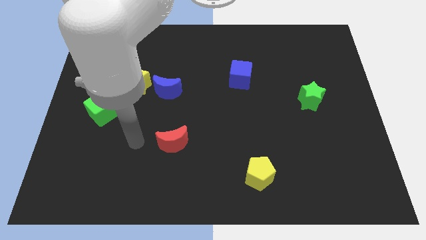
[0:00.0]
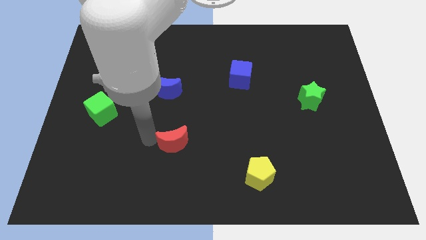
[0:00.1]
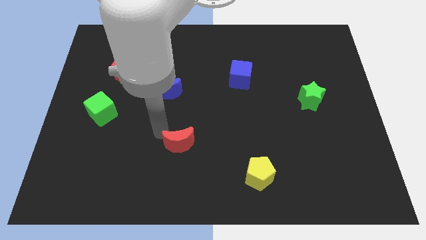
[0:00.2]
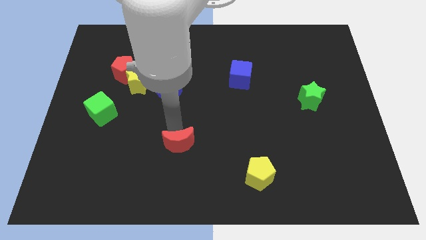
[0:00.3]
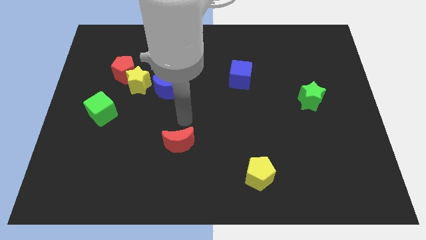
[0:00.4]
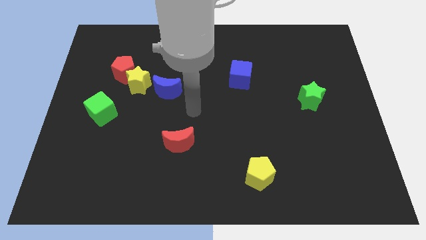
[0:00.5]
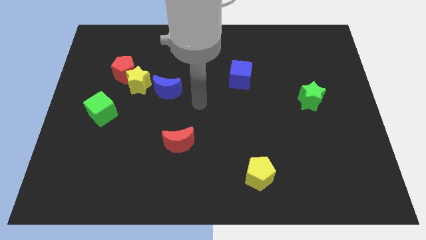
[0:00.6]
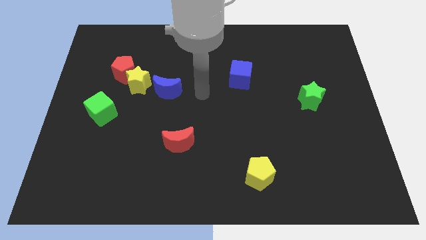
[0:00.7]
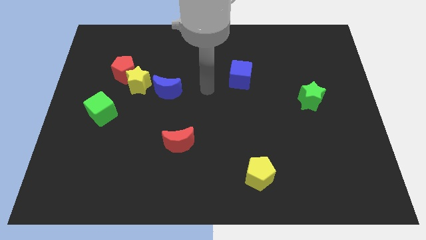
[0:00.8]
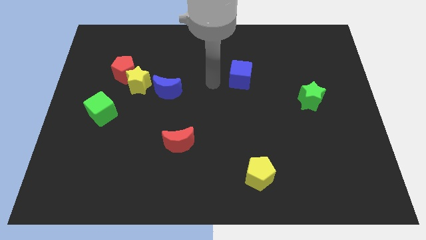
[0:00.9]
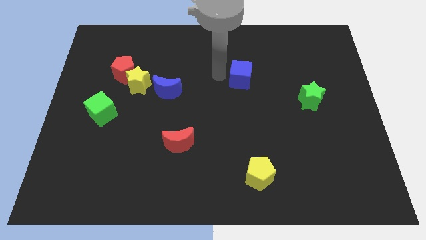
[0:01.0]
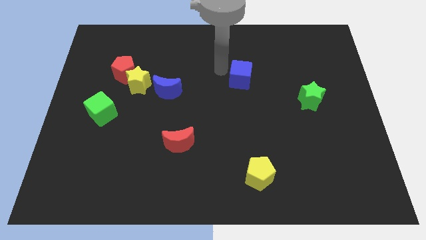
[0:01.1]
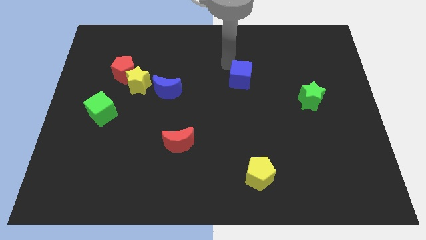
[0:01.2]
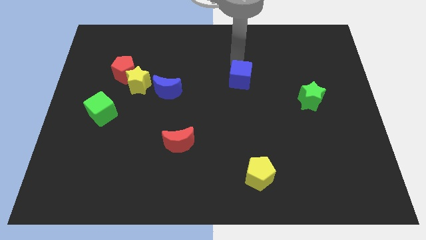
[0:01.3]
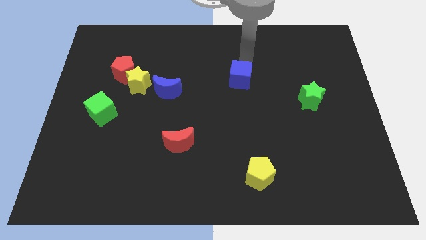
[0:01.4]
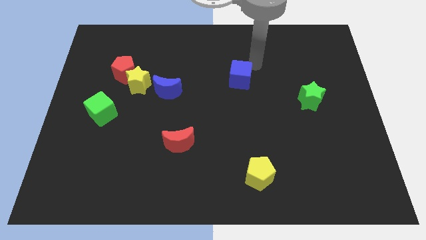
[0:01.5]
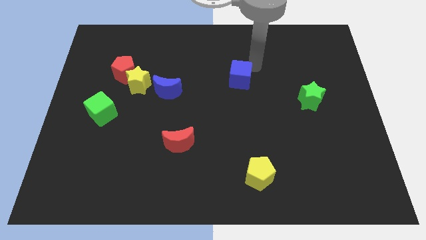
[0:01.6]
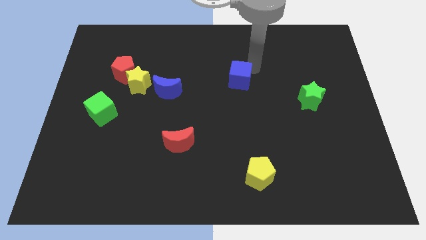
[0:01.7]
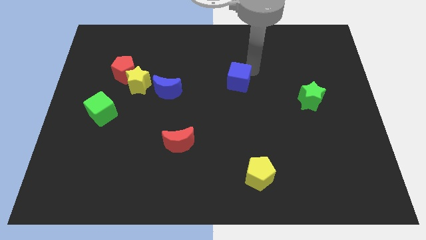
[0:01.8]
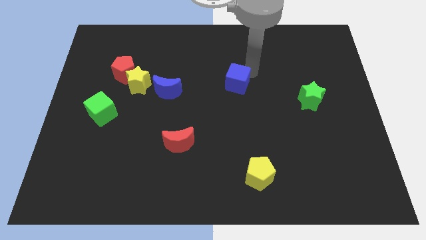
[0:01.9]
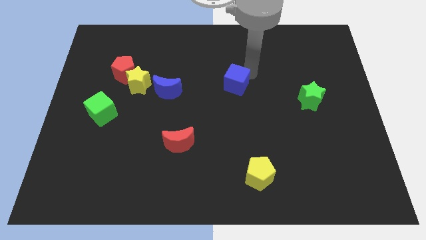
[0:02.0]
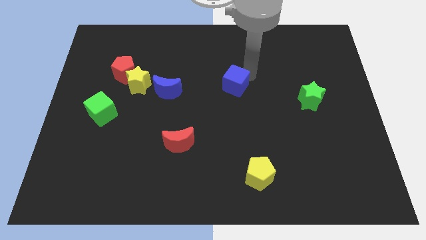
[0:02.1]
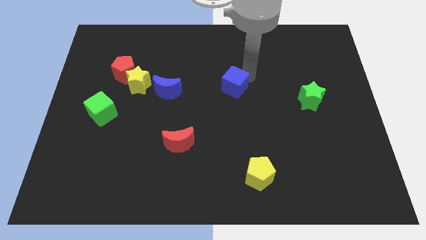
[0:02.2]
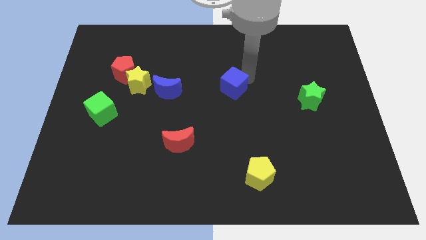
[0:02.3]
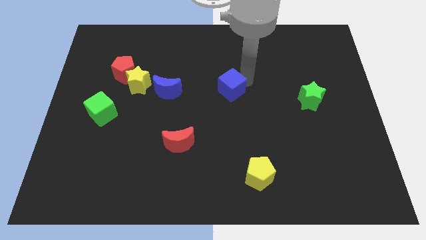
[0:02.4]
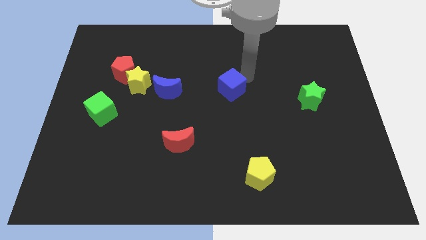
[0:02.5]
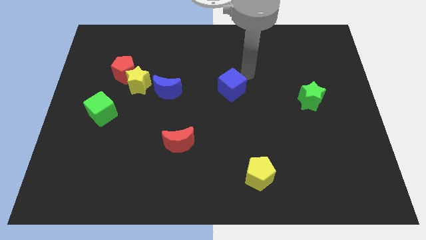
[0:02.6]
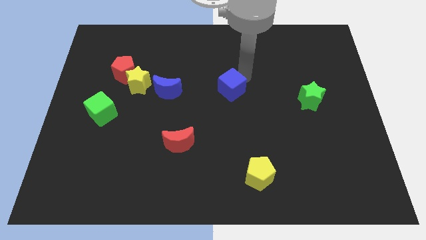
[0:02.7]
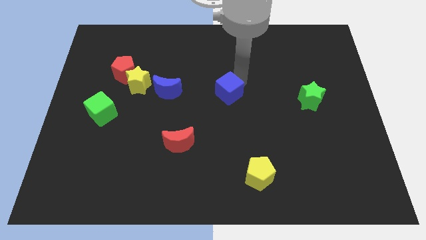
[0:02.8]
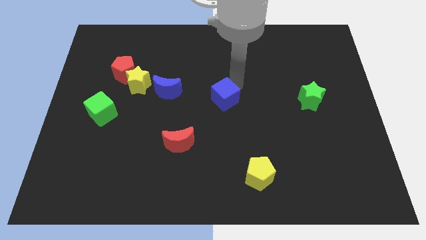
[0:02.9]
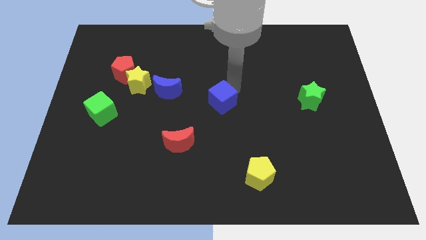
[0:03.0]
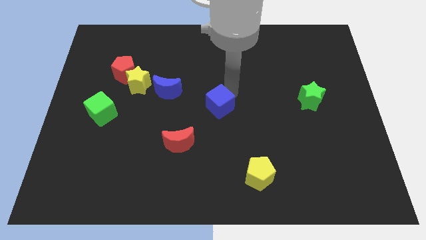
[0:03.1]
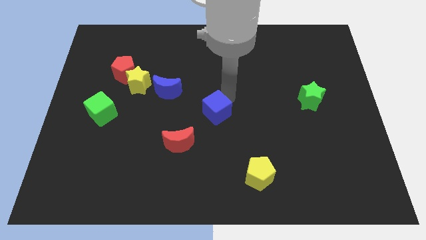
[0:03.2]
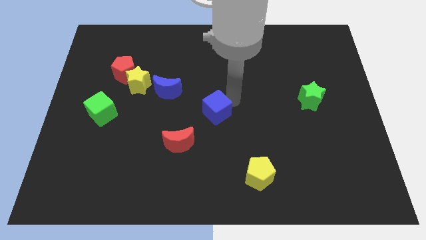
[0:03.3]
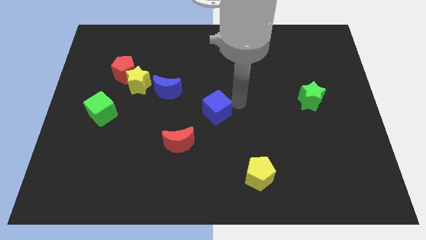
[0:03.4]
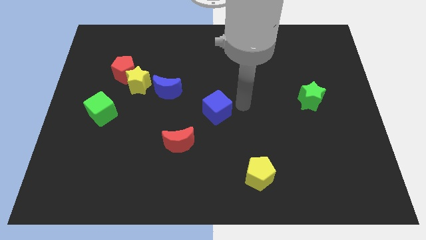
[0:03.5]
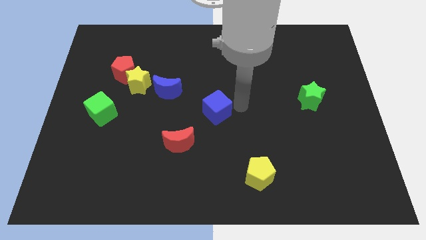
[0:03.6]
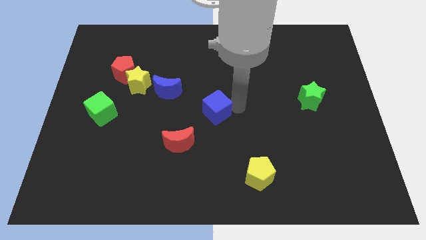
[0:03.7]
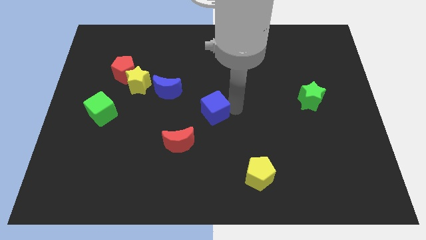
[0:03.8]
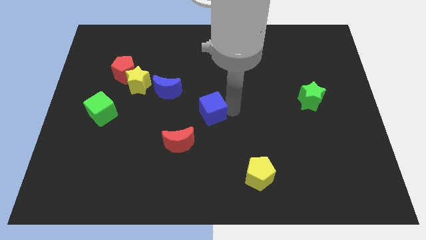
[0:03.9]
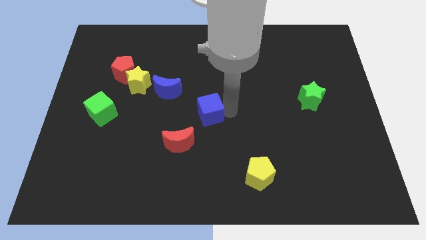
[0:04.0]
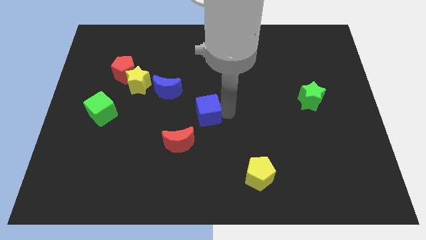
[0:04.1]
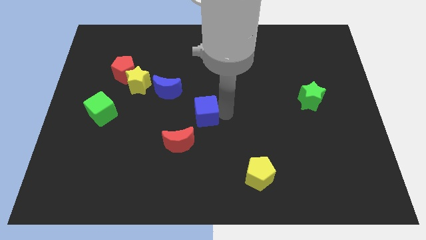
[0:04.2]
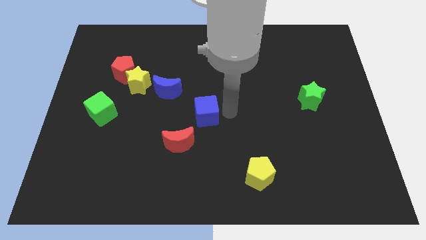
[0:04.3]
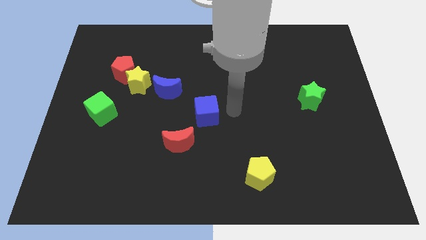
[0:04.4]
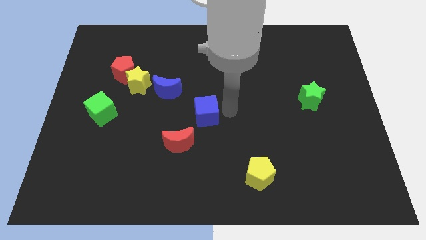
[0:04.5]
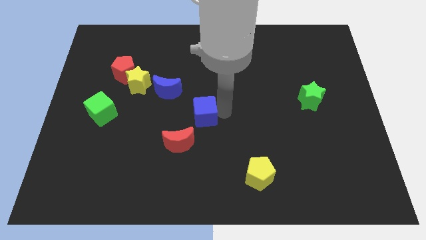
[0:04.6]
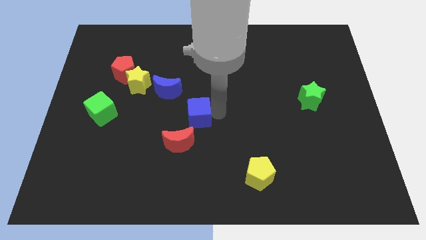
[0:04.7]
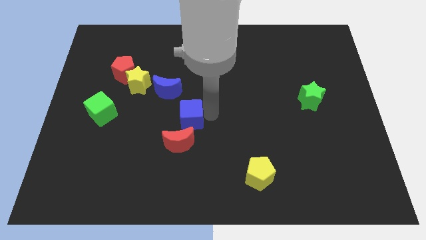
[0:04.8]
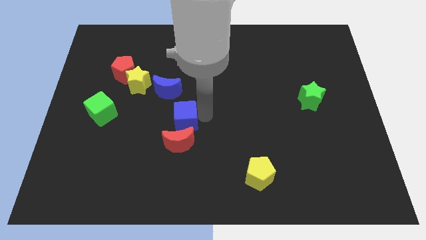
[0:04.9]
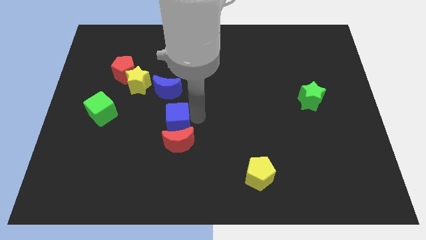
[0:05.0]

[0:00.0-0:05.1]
move the blue cube to the top left of the red moon

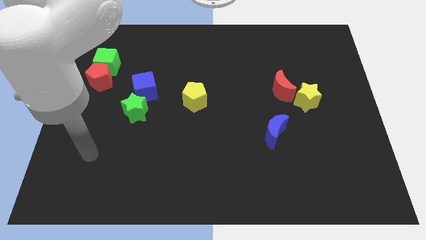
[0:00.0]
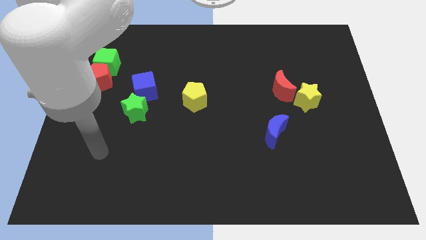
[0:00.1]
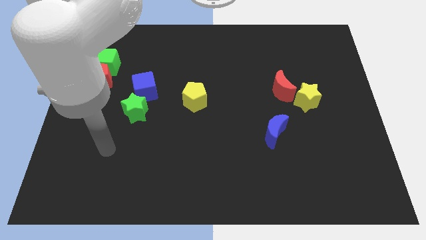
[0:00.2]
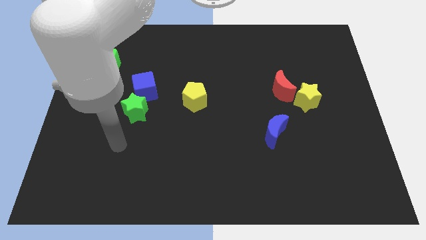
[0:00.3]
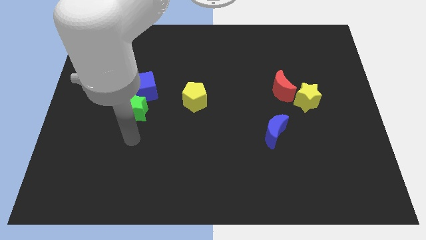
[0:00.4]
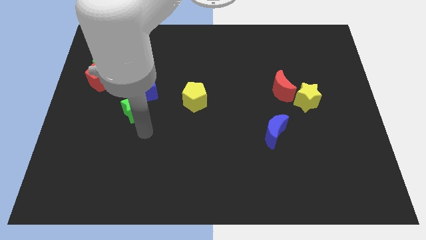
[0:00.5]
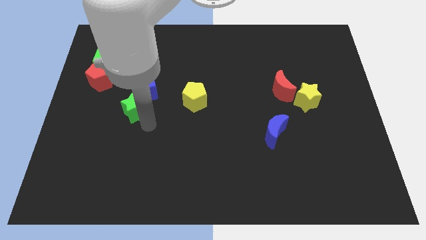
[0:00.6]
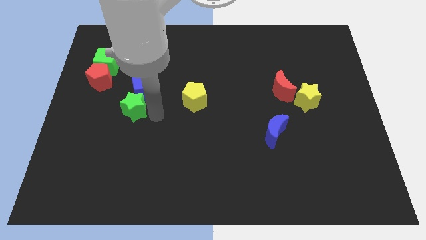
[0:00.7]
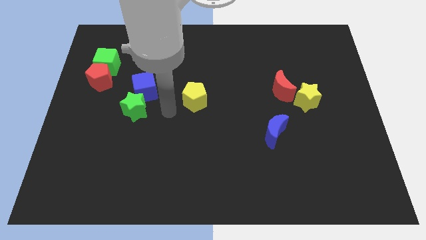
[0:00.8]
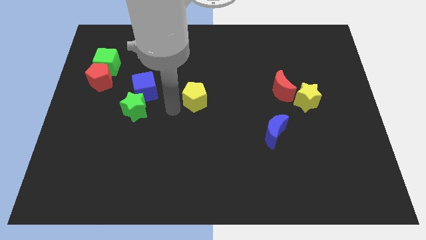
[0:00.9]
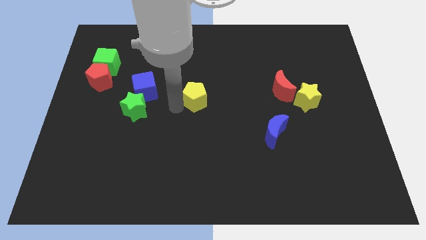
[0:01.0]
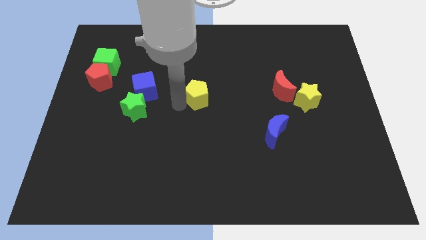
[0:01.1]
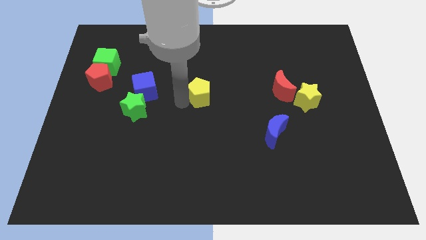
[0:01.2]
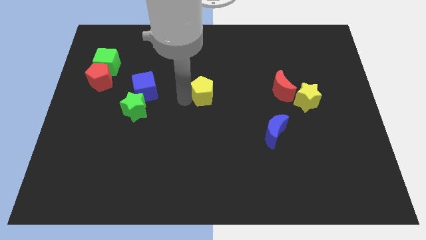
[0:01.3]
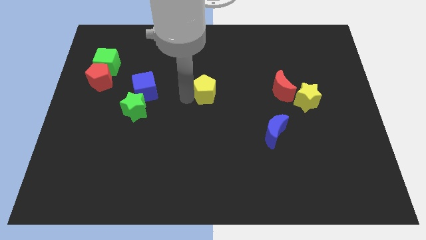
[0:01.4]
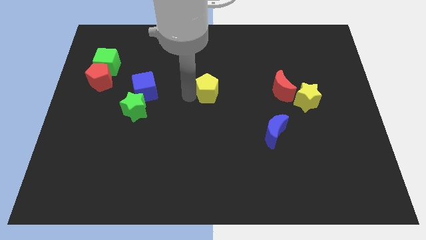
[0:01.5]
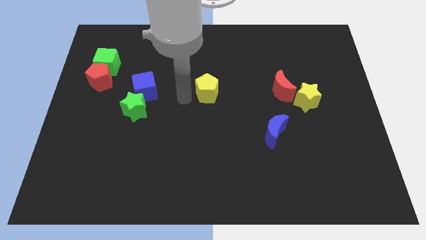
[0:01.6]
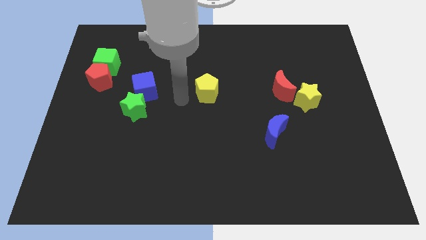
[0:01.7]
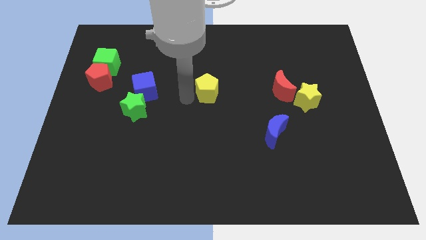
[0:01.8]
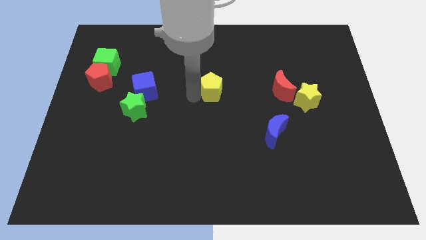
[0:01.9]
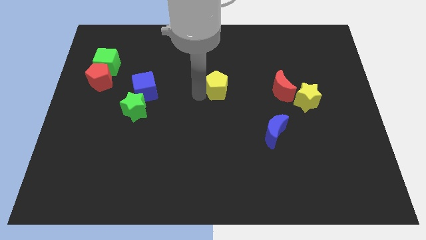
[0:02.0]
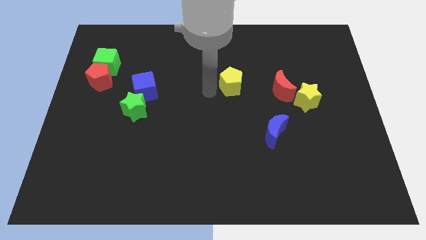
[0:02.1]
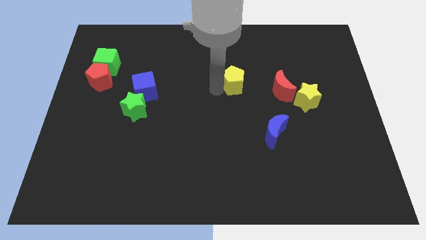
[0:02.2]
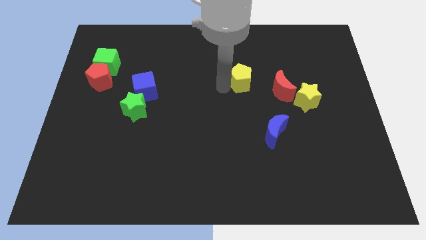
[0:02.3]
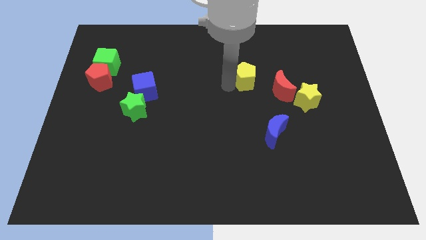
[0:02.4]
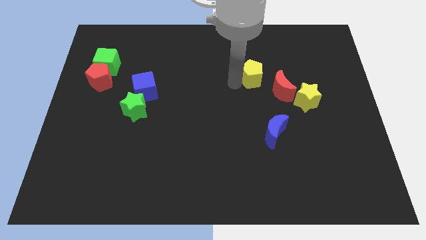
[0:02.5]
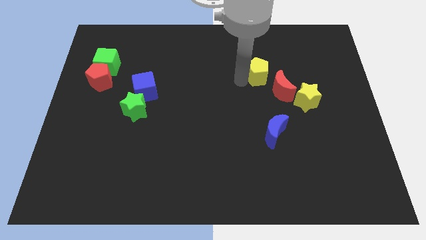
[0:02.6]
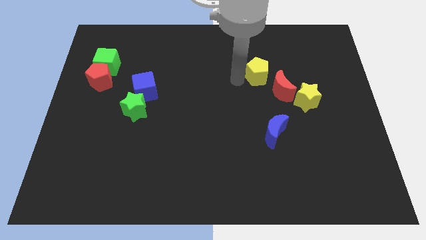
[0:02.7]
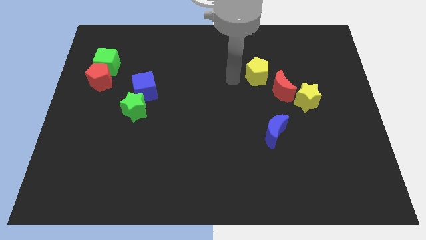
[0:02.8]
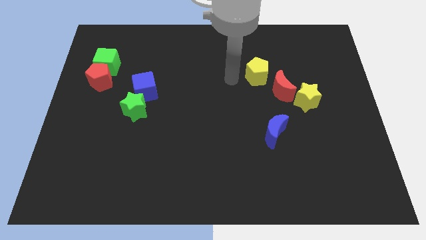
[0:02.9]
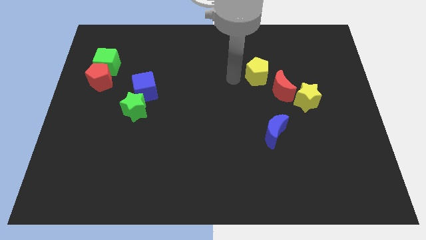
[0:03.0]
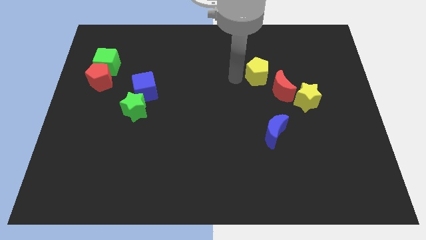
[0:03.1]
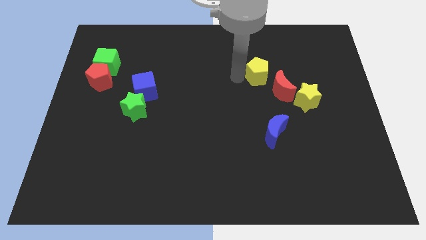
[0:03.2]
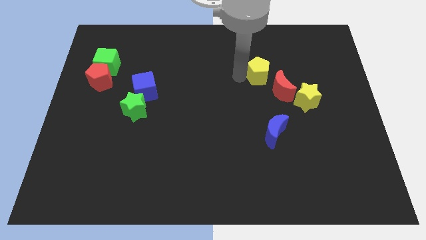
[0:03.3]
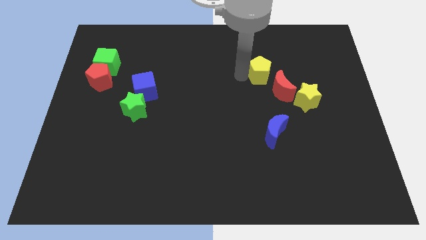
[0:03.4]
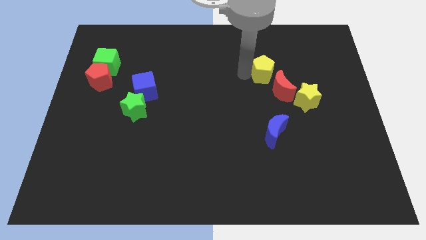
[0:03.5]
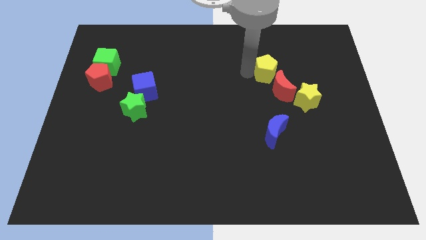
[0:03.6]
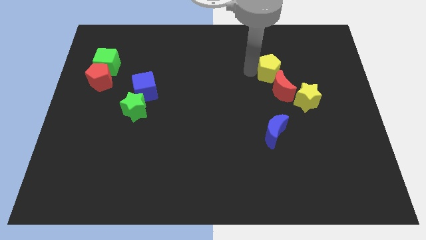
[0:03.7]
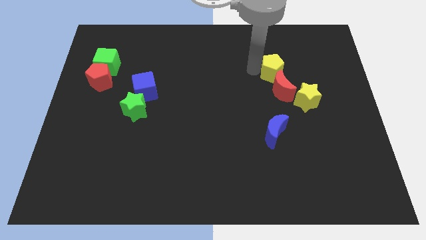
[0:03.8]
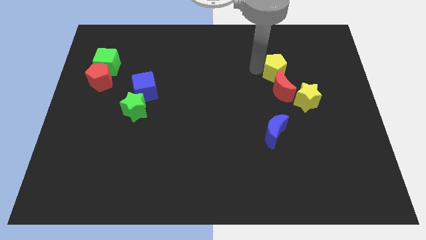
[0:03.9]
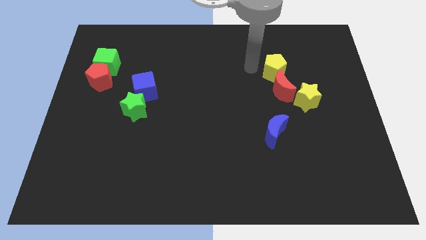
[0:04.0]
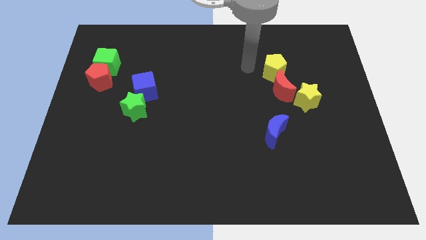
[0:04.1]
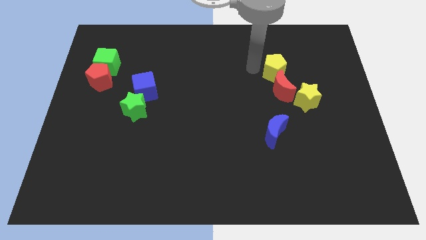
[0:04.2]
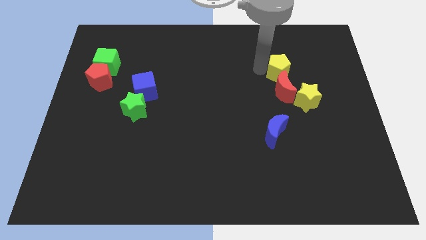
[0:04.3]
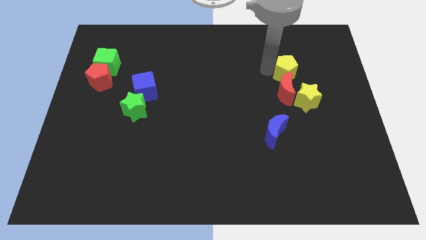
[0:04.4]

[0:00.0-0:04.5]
move the yellow pentagon diagonally up and to the right of the red moon
